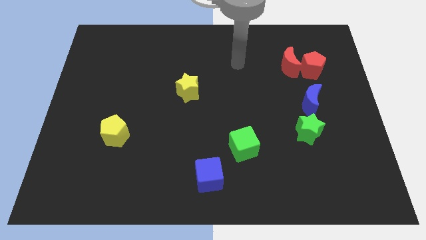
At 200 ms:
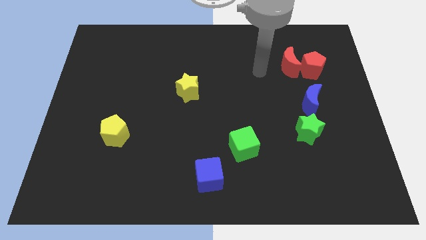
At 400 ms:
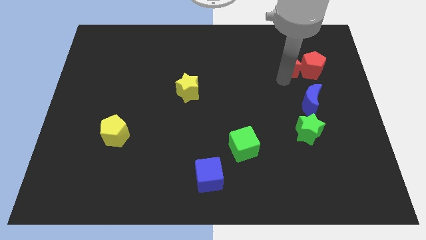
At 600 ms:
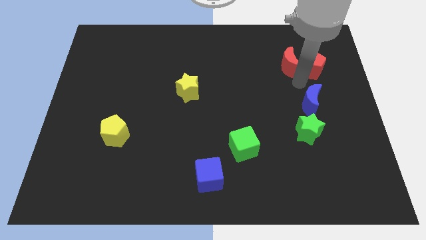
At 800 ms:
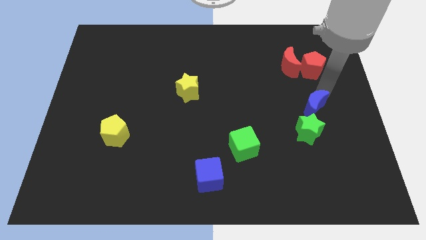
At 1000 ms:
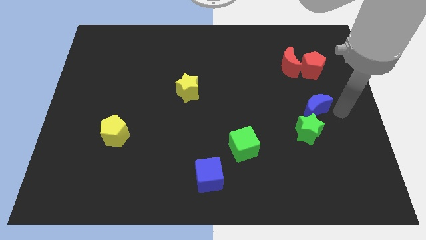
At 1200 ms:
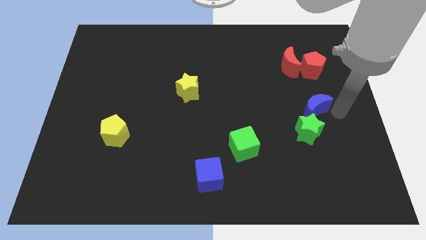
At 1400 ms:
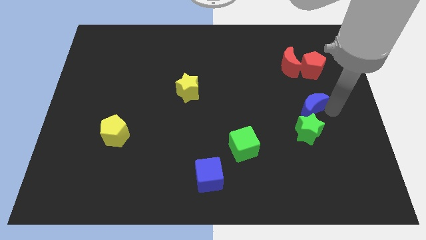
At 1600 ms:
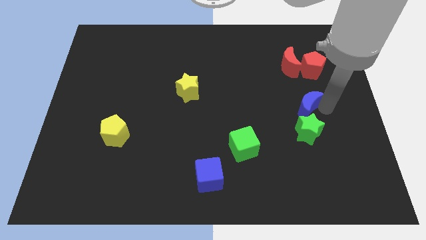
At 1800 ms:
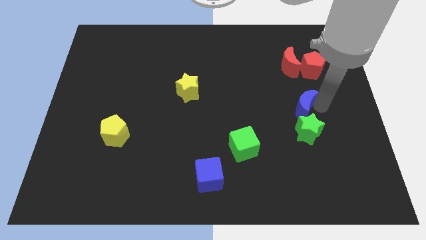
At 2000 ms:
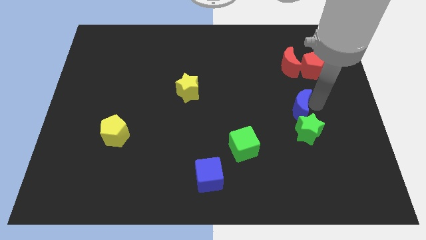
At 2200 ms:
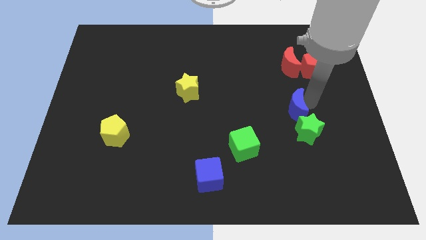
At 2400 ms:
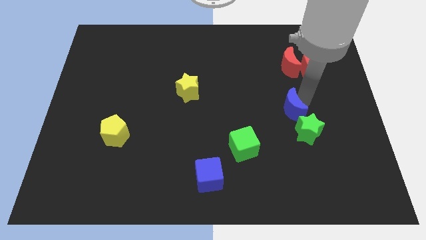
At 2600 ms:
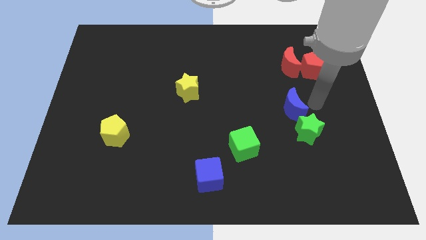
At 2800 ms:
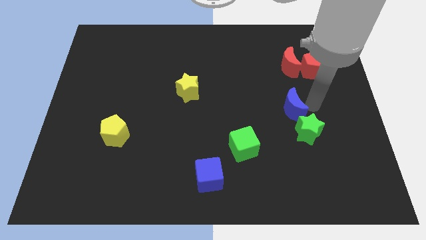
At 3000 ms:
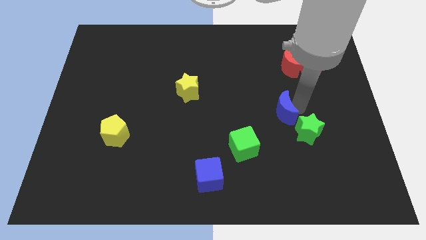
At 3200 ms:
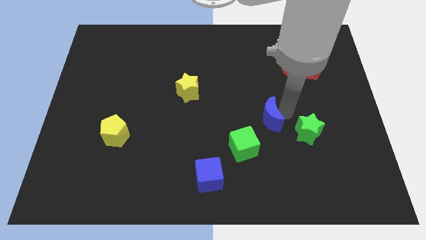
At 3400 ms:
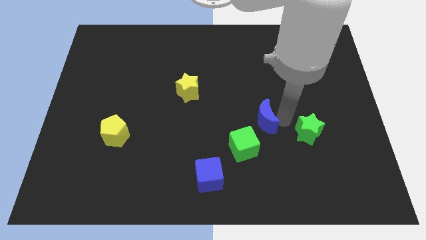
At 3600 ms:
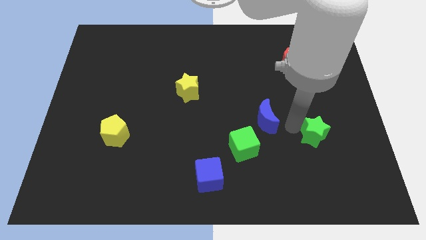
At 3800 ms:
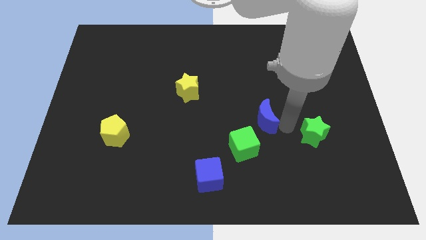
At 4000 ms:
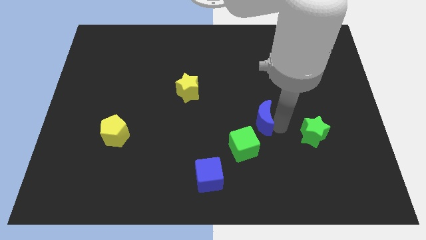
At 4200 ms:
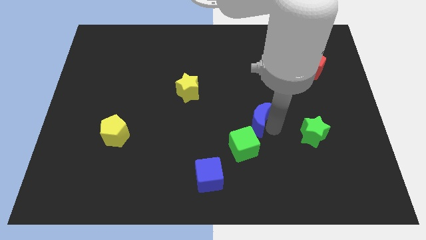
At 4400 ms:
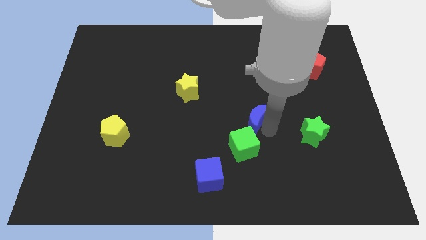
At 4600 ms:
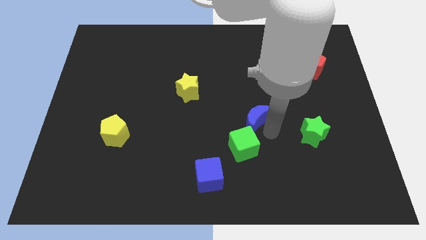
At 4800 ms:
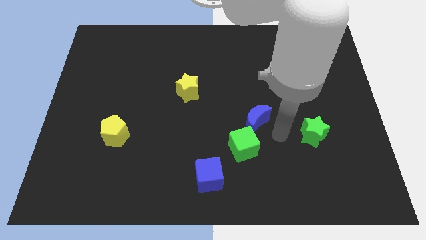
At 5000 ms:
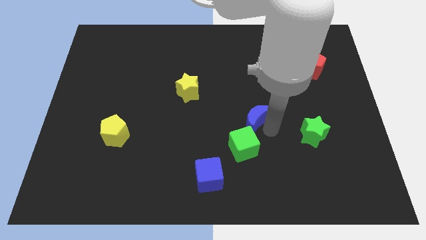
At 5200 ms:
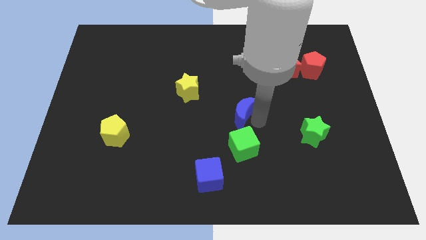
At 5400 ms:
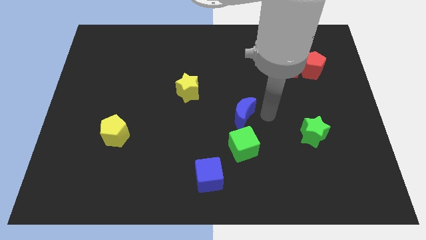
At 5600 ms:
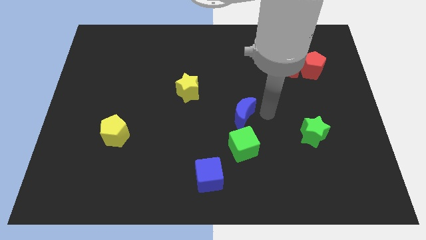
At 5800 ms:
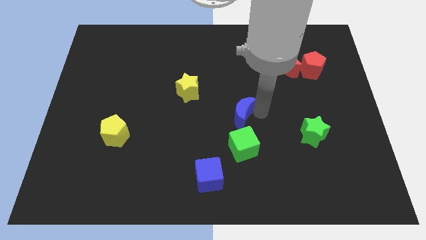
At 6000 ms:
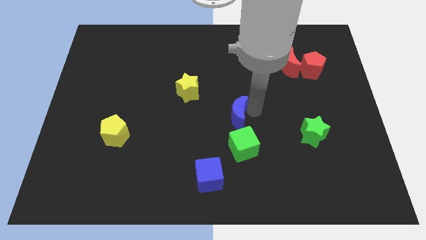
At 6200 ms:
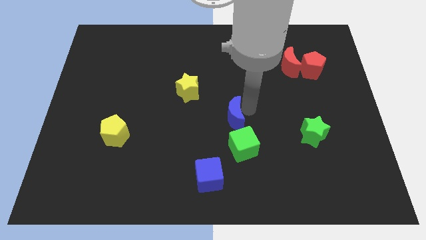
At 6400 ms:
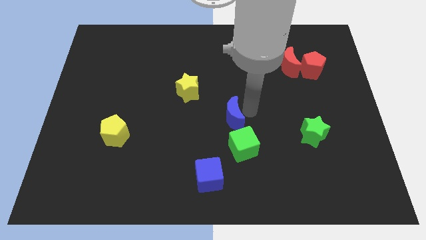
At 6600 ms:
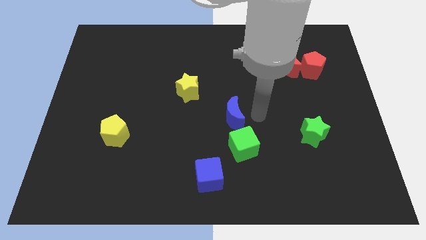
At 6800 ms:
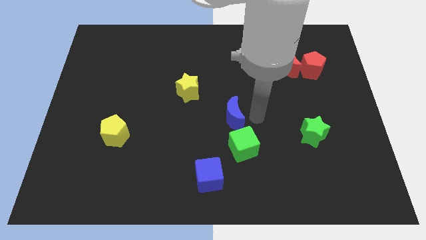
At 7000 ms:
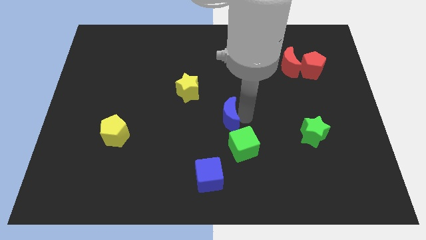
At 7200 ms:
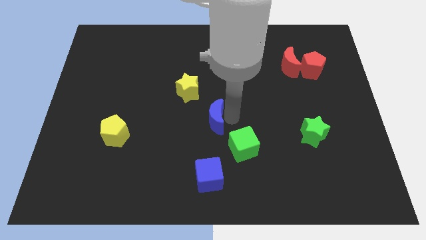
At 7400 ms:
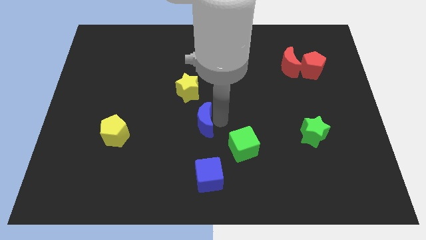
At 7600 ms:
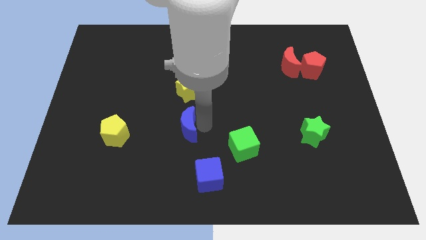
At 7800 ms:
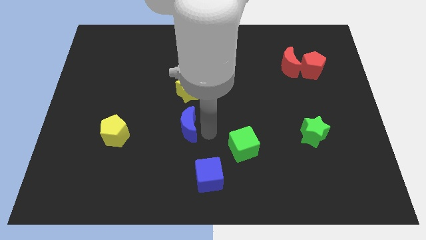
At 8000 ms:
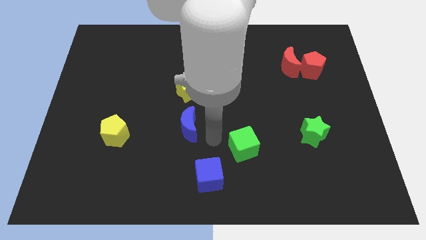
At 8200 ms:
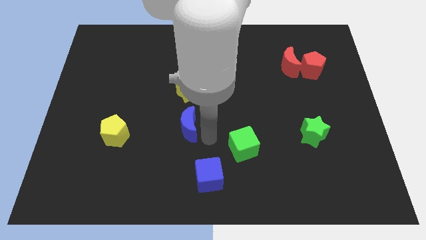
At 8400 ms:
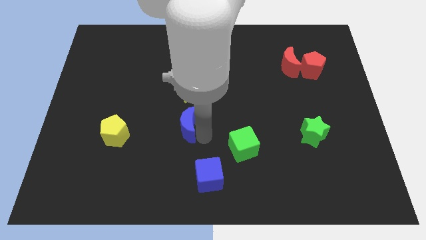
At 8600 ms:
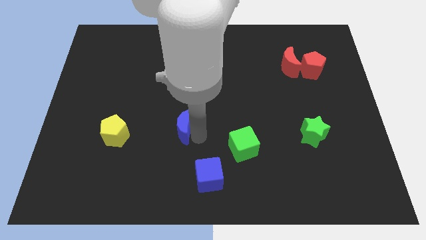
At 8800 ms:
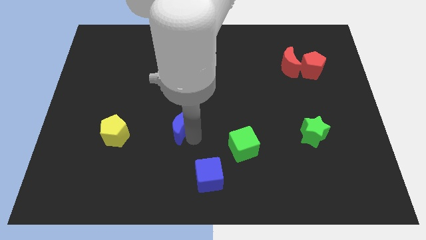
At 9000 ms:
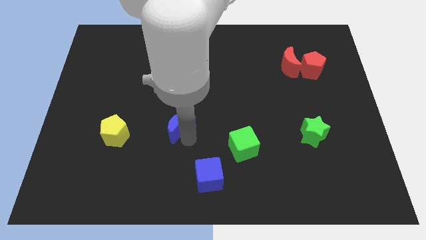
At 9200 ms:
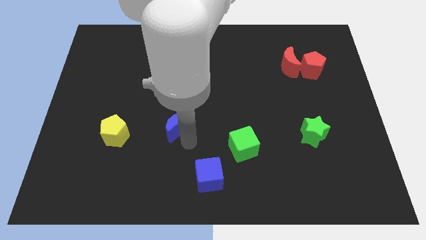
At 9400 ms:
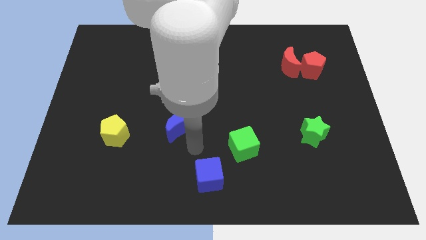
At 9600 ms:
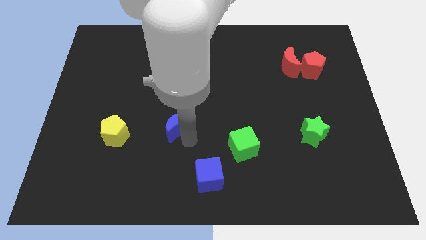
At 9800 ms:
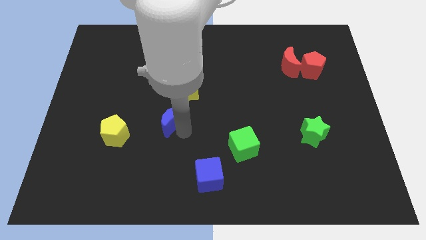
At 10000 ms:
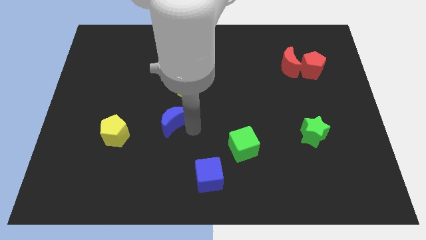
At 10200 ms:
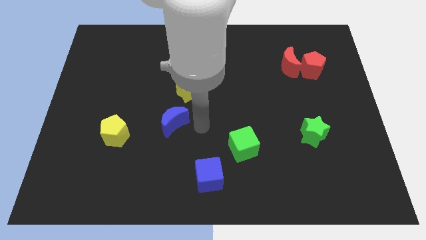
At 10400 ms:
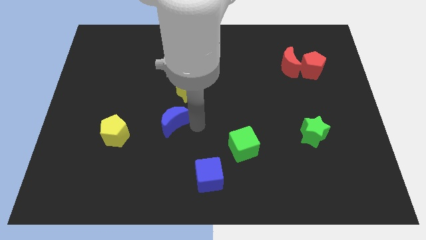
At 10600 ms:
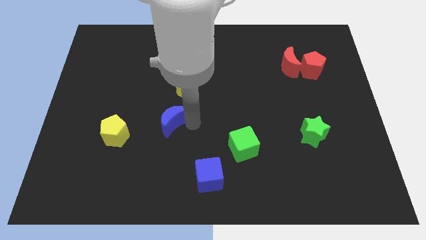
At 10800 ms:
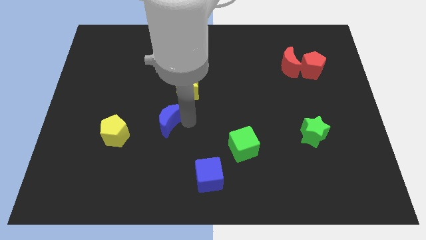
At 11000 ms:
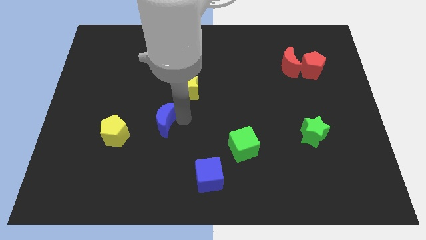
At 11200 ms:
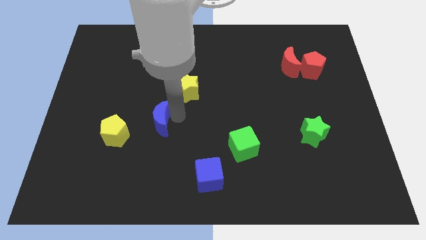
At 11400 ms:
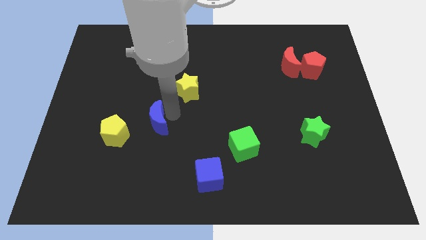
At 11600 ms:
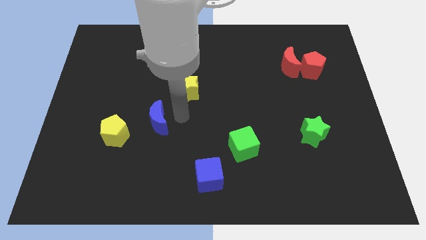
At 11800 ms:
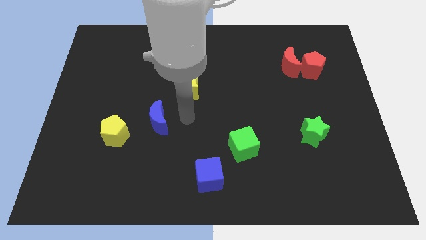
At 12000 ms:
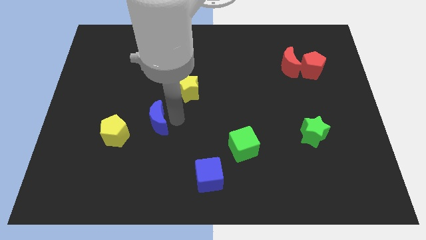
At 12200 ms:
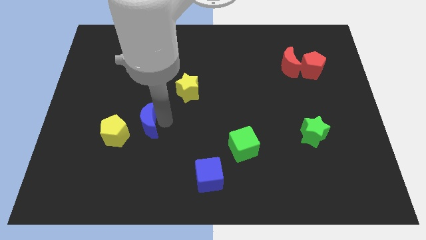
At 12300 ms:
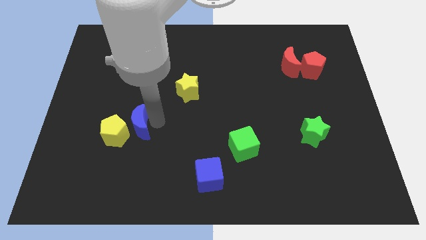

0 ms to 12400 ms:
move the blue moon to the yellow pentagon

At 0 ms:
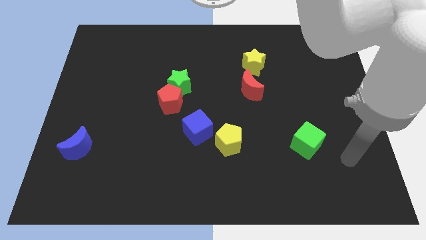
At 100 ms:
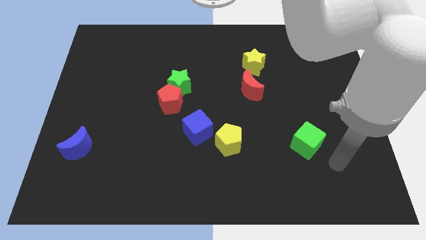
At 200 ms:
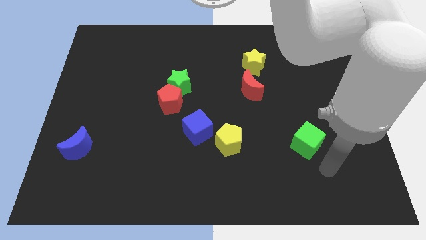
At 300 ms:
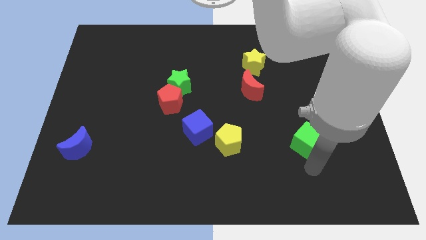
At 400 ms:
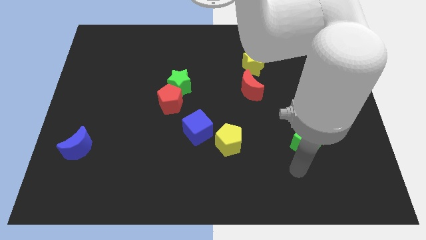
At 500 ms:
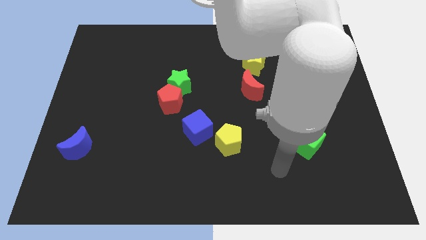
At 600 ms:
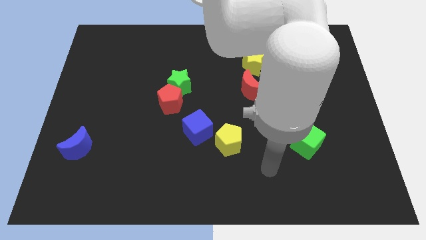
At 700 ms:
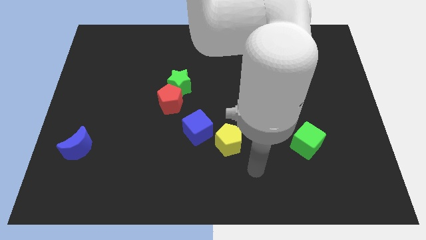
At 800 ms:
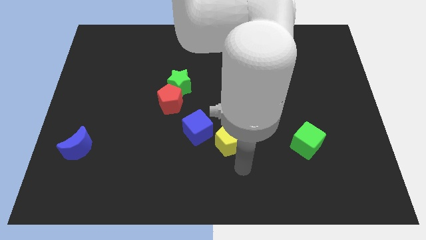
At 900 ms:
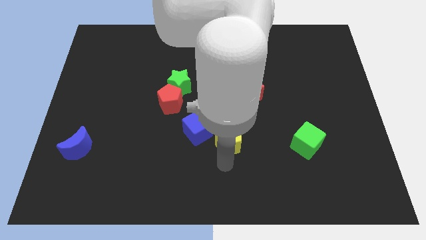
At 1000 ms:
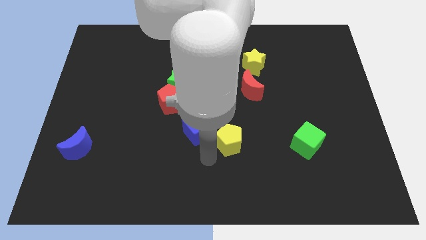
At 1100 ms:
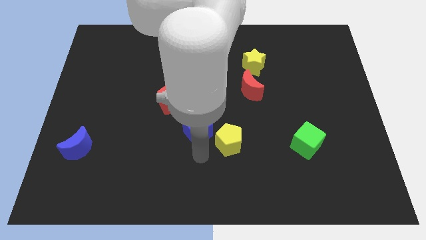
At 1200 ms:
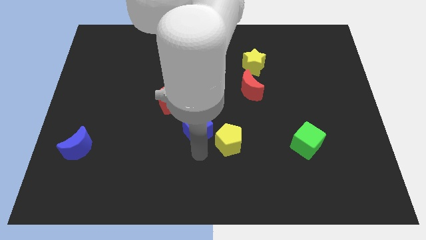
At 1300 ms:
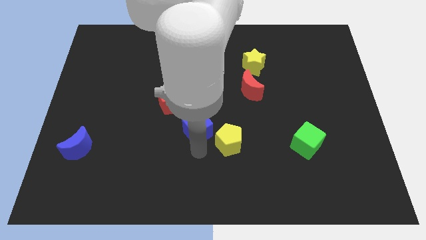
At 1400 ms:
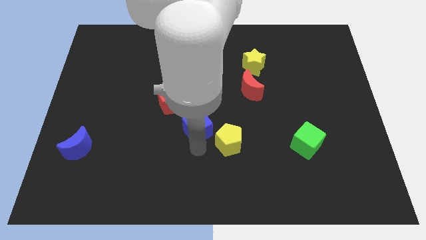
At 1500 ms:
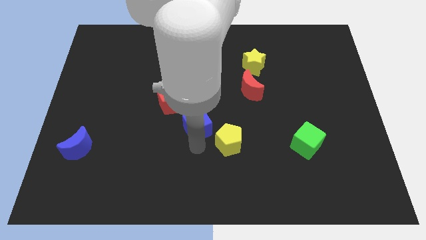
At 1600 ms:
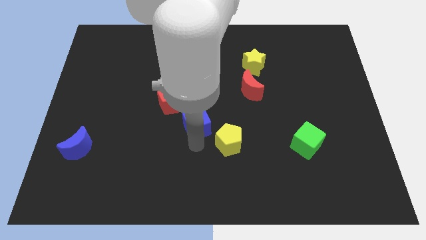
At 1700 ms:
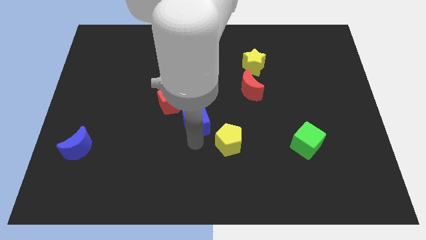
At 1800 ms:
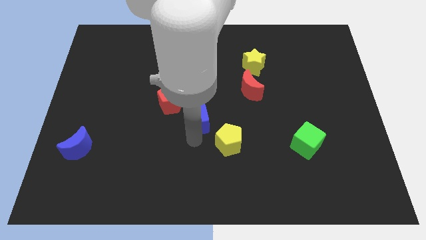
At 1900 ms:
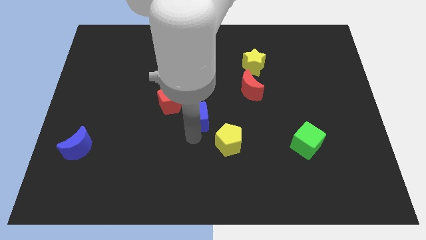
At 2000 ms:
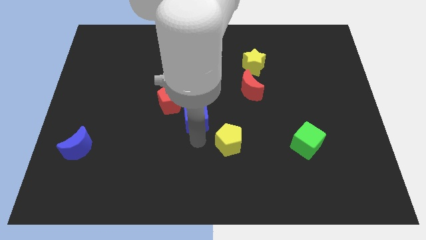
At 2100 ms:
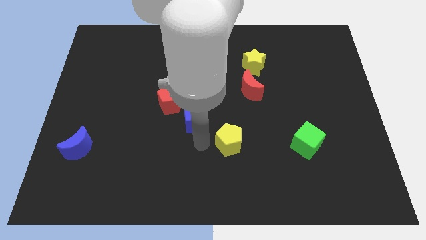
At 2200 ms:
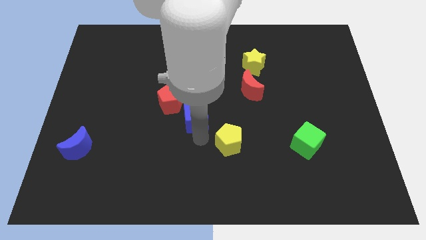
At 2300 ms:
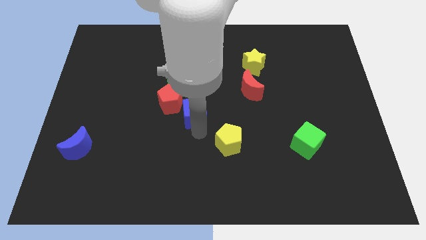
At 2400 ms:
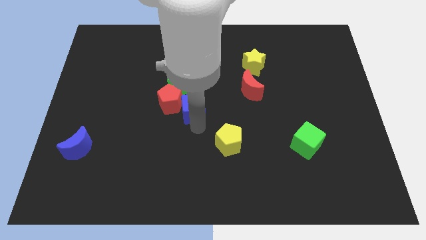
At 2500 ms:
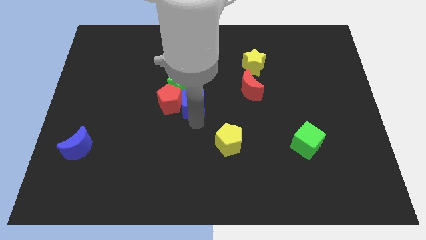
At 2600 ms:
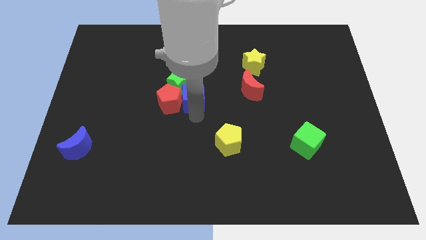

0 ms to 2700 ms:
push the blue cube towards the green star
